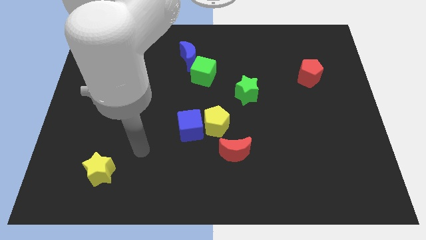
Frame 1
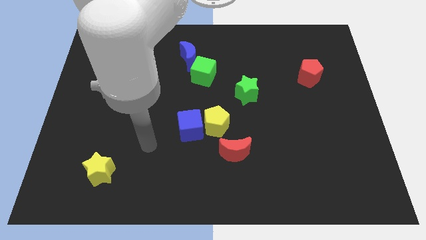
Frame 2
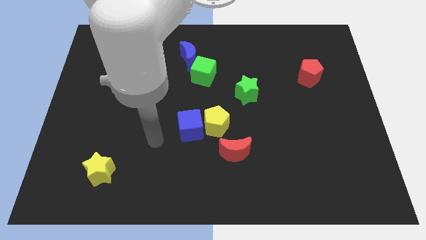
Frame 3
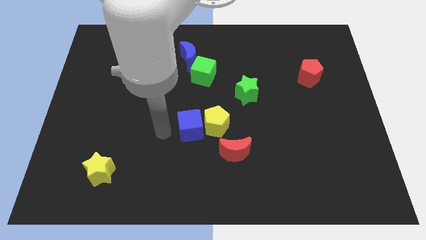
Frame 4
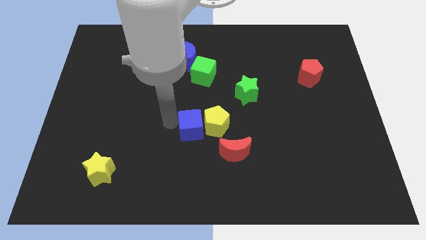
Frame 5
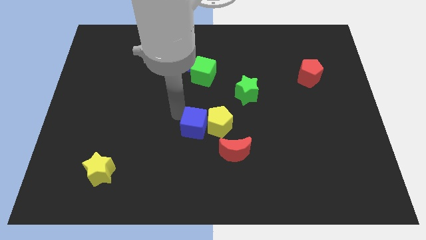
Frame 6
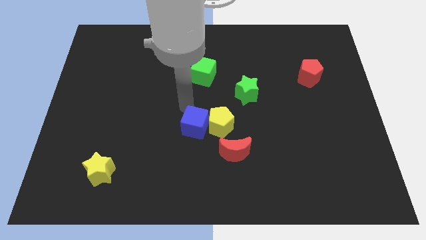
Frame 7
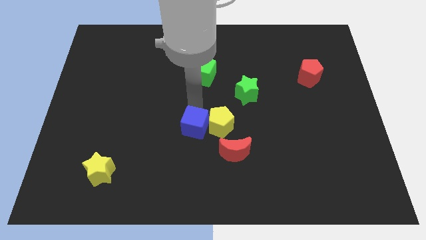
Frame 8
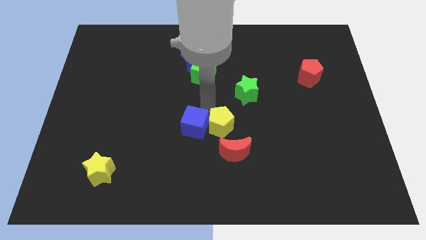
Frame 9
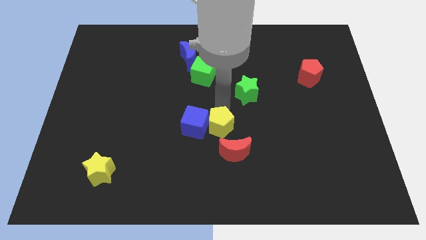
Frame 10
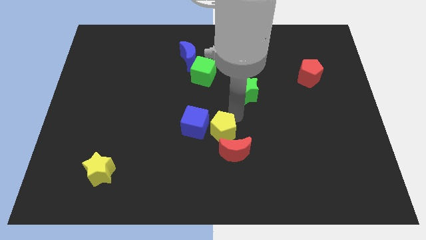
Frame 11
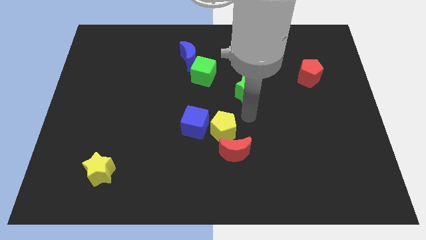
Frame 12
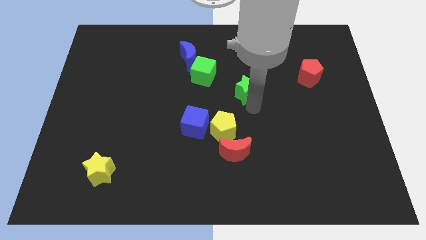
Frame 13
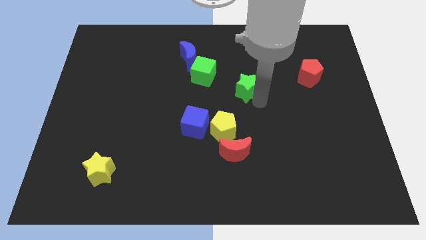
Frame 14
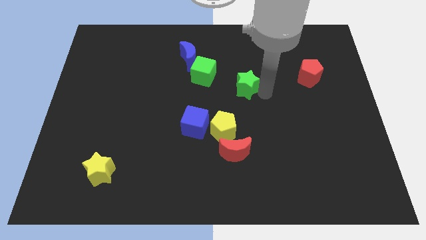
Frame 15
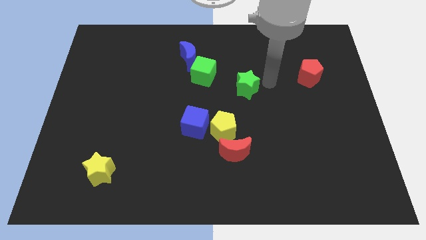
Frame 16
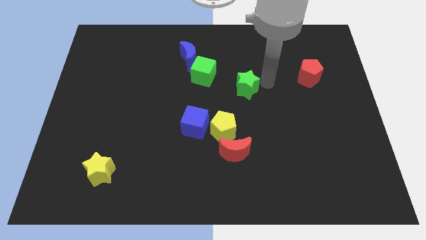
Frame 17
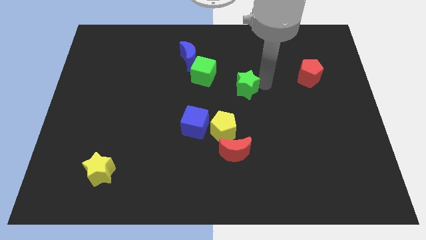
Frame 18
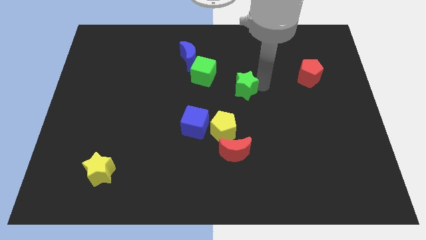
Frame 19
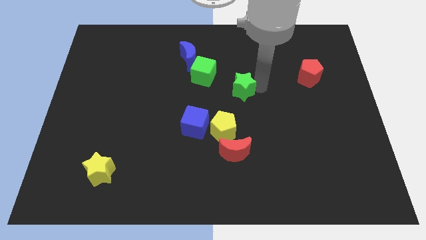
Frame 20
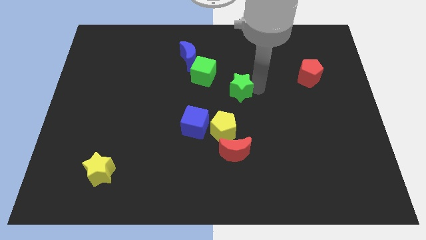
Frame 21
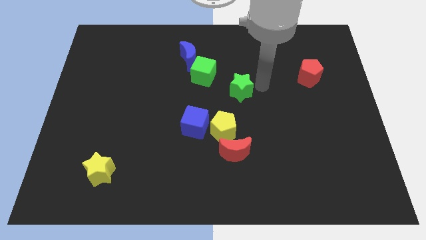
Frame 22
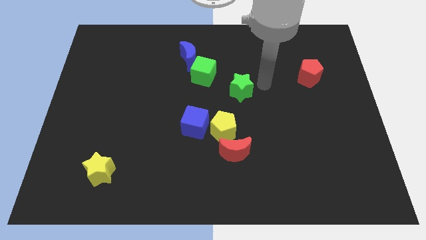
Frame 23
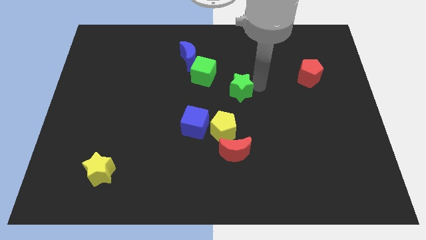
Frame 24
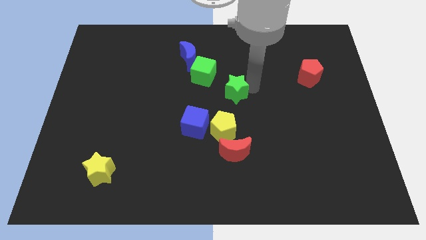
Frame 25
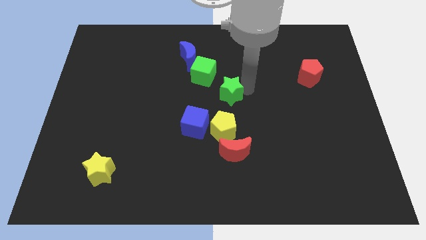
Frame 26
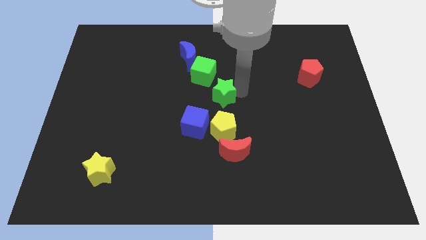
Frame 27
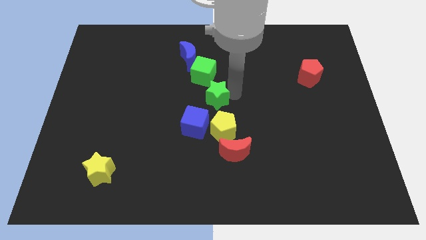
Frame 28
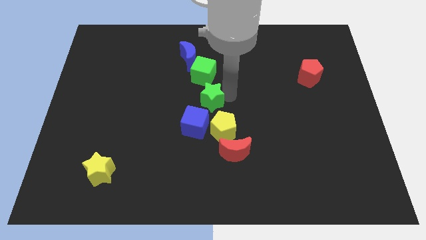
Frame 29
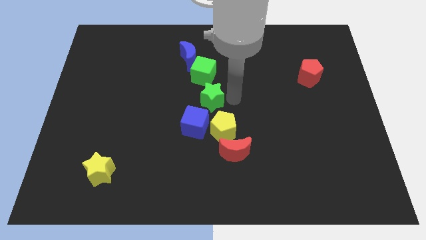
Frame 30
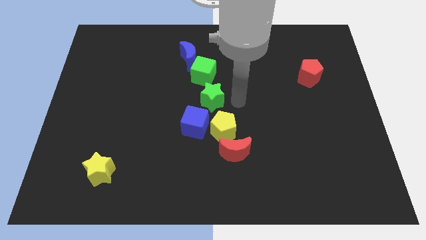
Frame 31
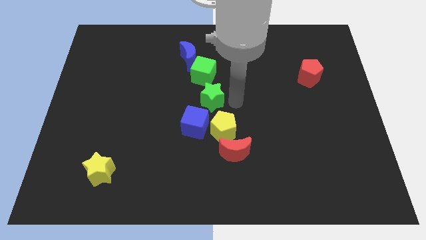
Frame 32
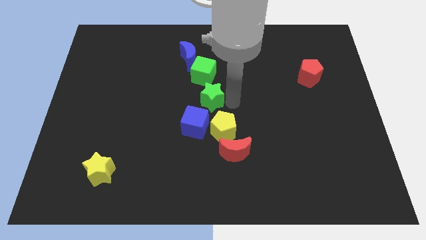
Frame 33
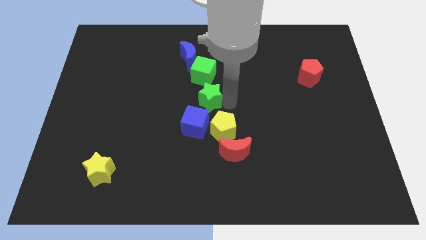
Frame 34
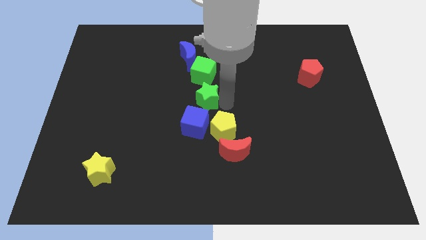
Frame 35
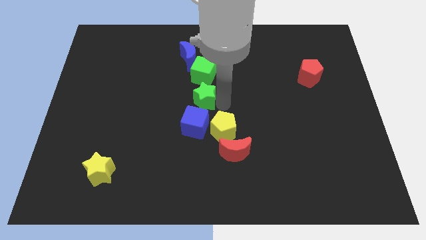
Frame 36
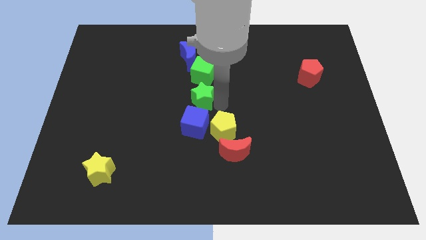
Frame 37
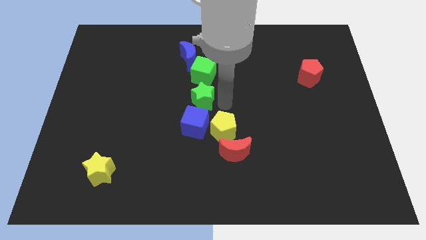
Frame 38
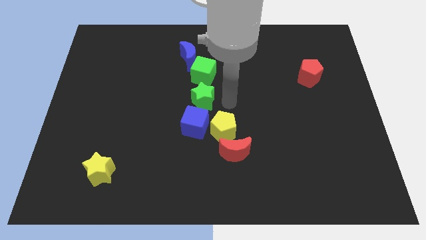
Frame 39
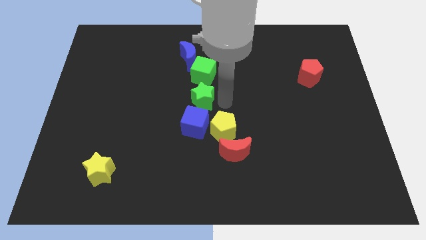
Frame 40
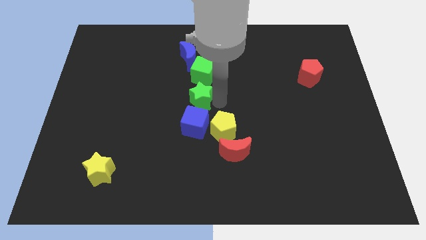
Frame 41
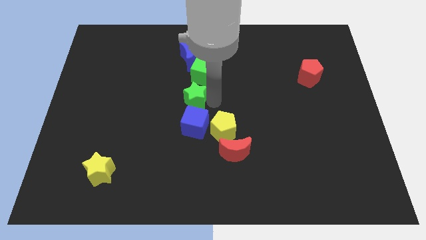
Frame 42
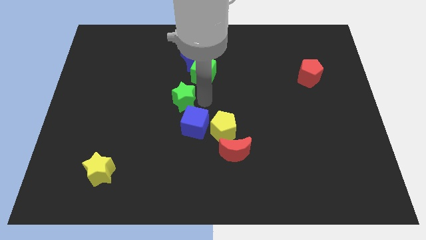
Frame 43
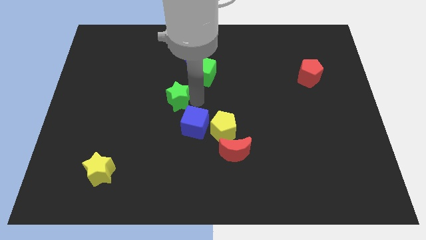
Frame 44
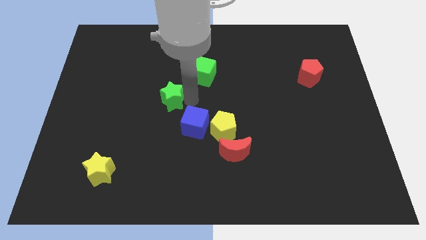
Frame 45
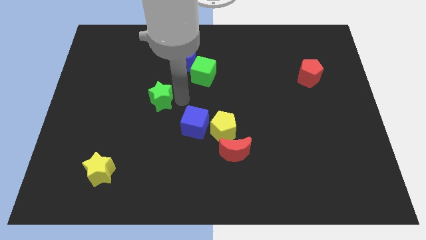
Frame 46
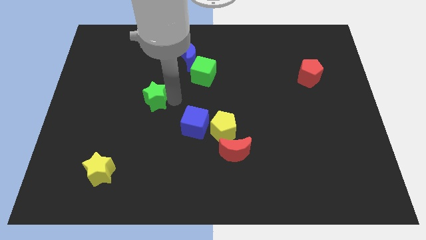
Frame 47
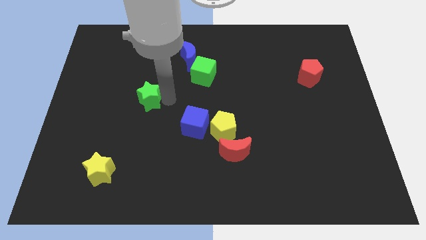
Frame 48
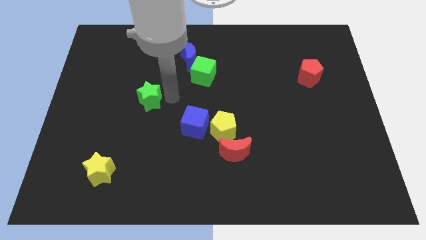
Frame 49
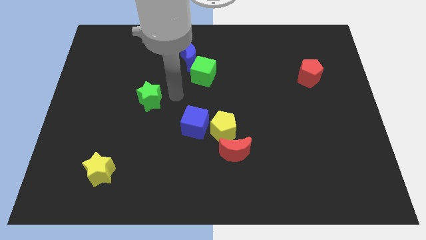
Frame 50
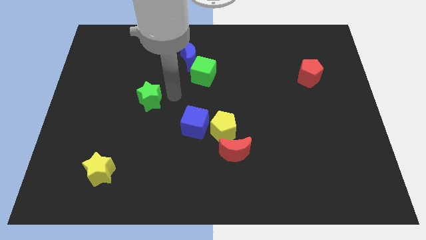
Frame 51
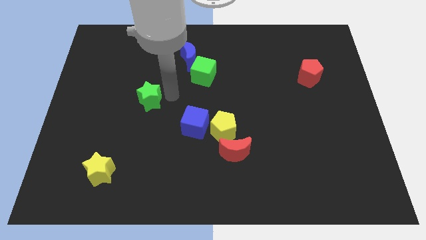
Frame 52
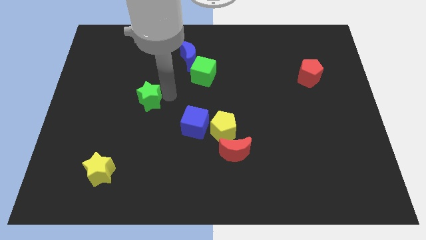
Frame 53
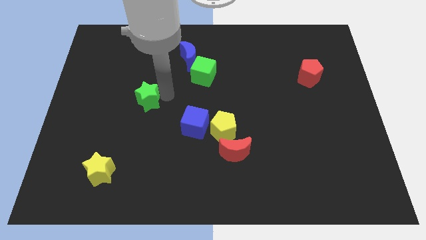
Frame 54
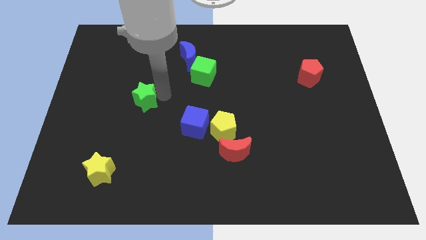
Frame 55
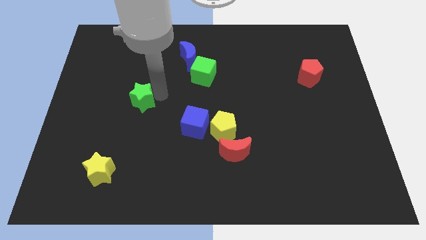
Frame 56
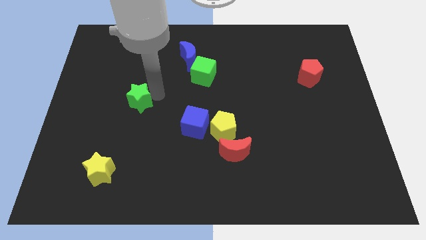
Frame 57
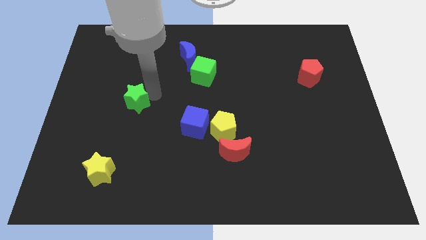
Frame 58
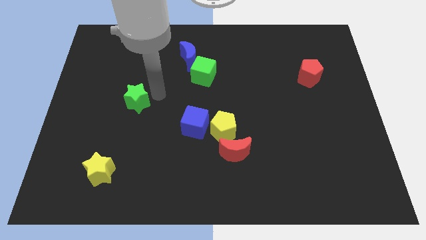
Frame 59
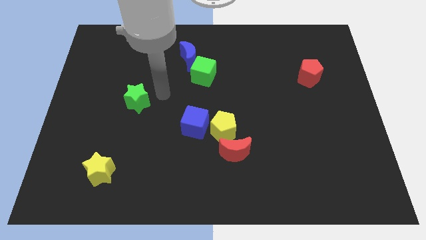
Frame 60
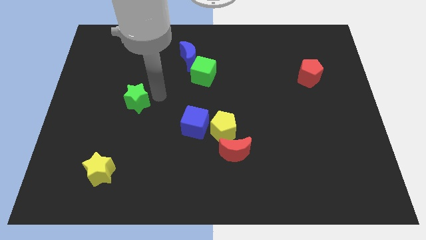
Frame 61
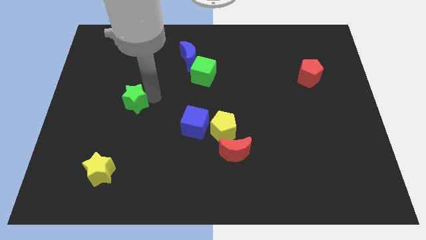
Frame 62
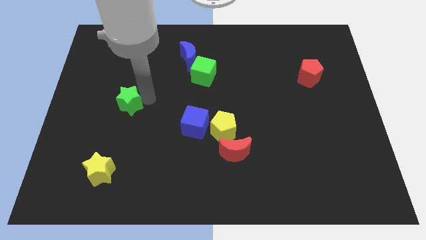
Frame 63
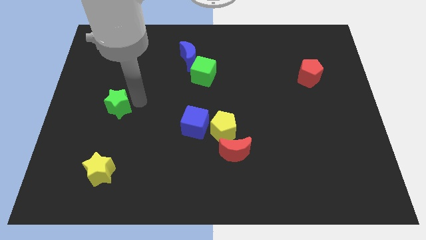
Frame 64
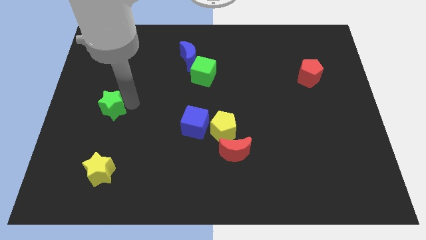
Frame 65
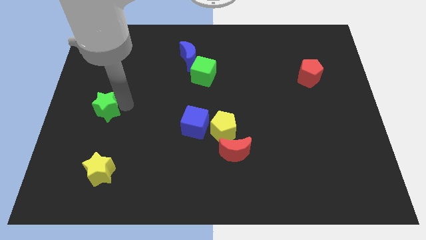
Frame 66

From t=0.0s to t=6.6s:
push the green star to the left side of the board
